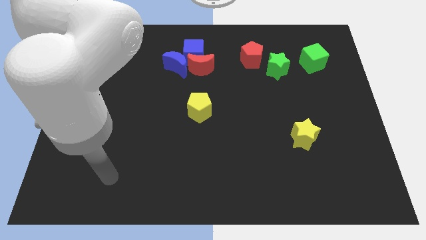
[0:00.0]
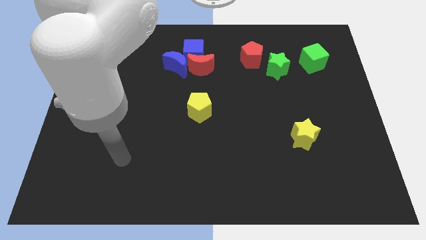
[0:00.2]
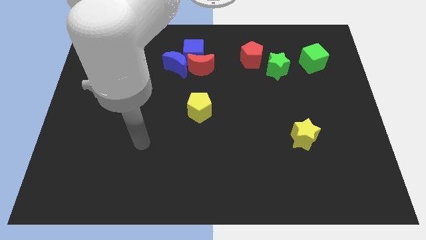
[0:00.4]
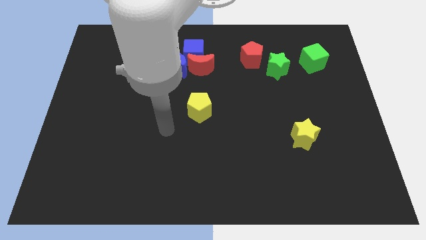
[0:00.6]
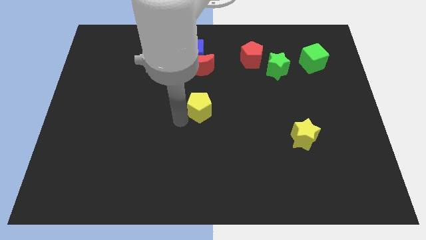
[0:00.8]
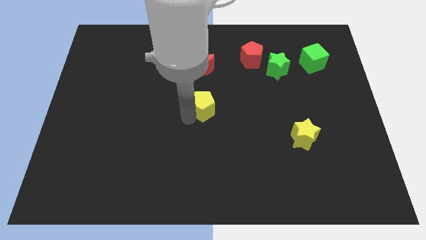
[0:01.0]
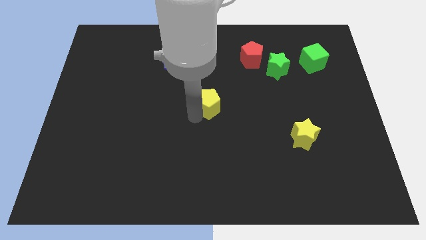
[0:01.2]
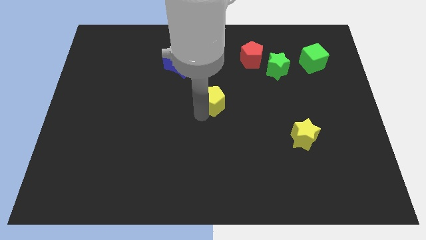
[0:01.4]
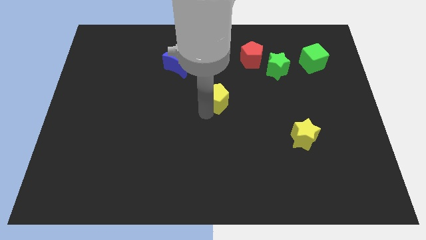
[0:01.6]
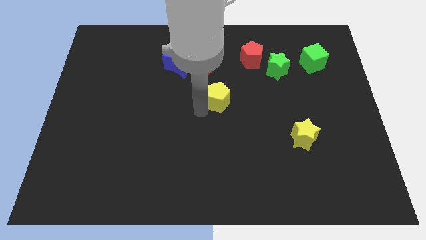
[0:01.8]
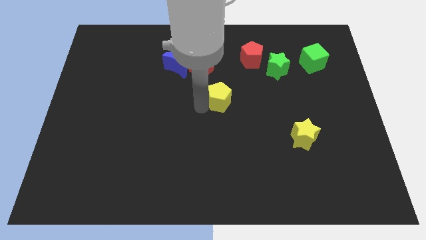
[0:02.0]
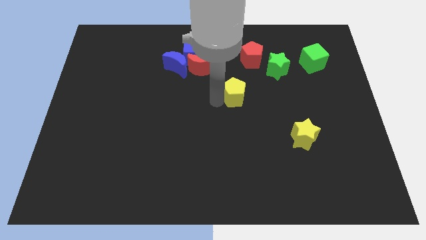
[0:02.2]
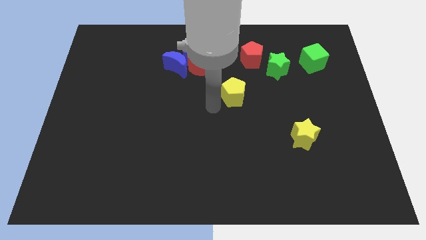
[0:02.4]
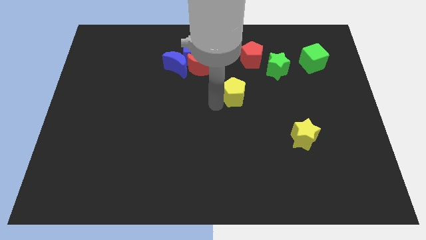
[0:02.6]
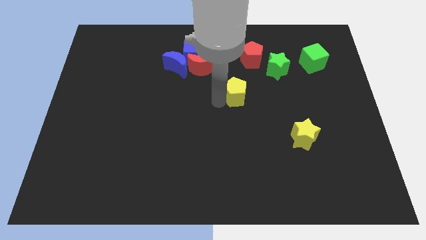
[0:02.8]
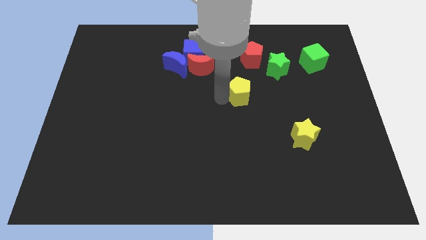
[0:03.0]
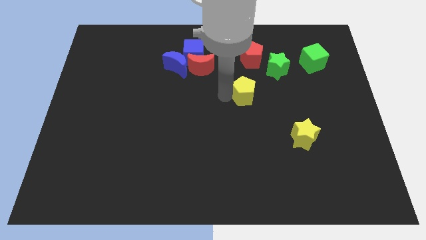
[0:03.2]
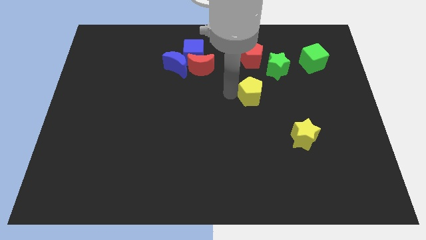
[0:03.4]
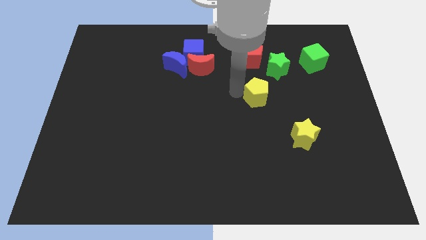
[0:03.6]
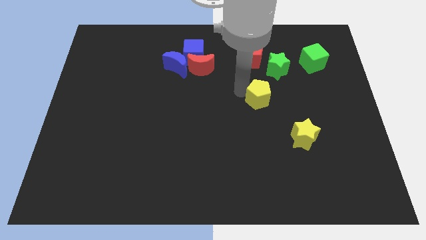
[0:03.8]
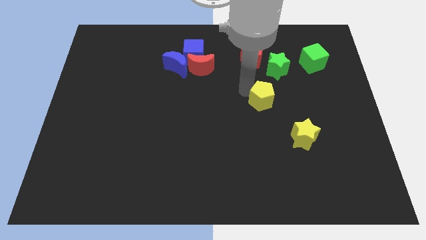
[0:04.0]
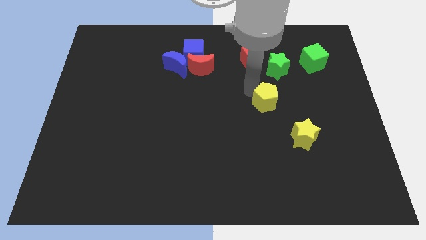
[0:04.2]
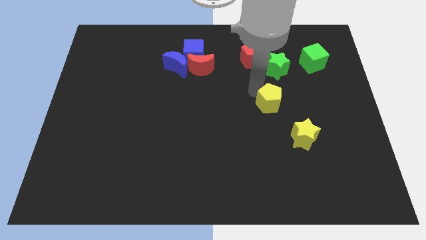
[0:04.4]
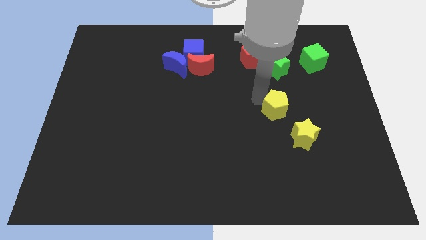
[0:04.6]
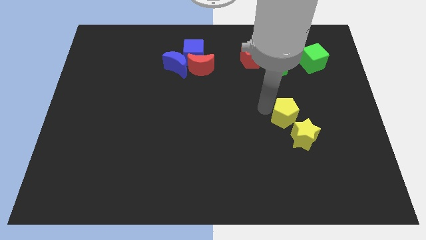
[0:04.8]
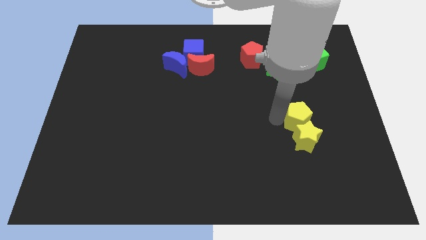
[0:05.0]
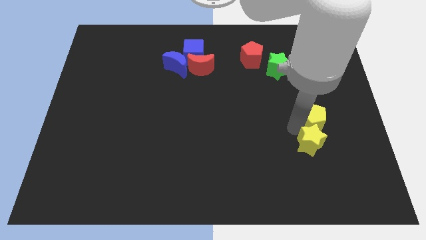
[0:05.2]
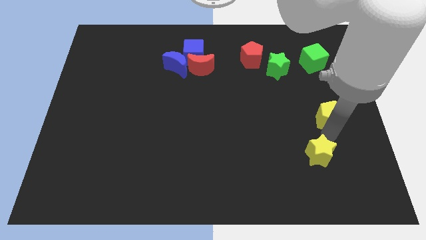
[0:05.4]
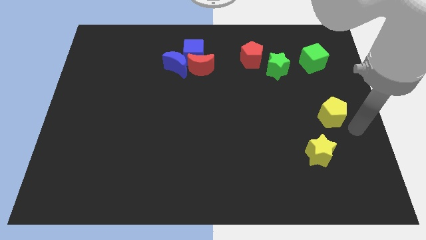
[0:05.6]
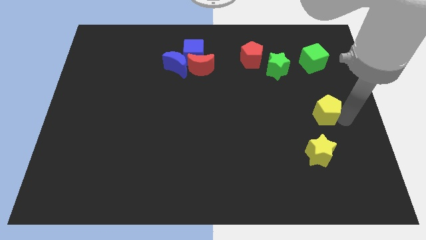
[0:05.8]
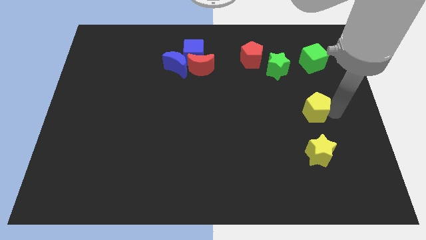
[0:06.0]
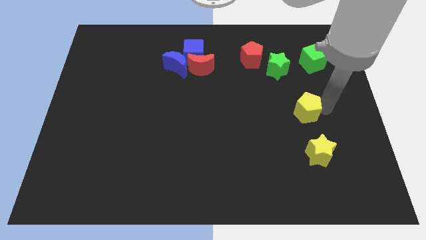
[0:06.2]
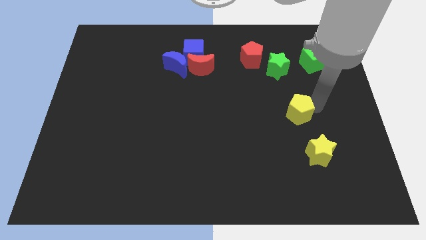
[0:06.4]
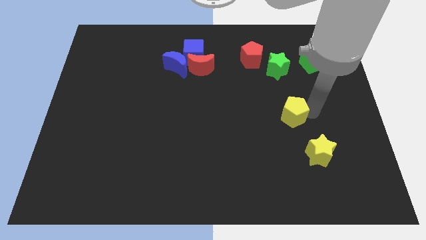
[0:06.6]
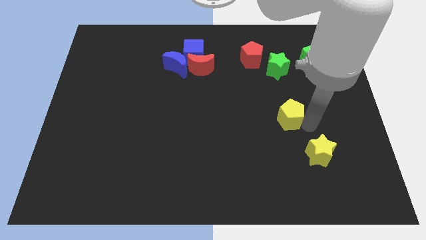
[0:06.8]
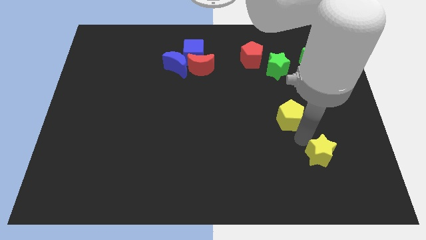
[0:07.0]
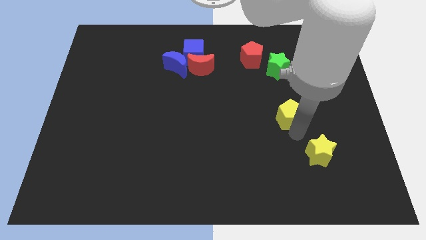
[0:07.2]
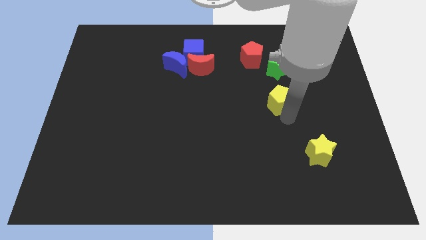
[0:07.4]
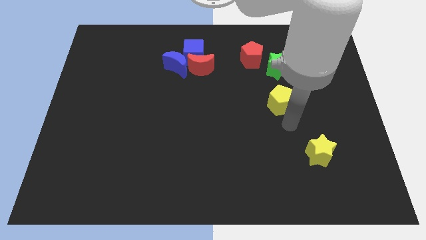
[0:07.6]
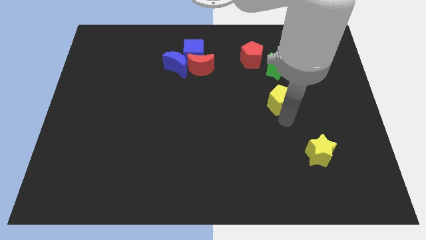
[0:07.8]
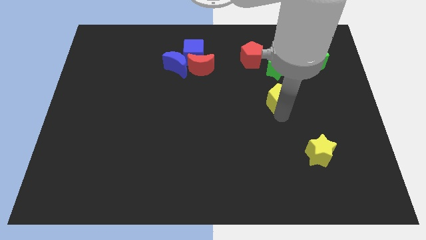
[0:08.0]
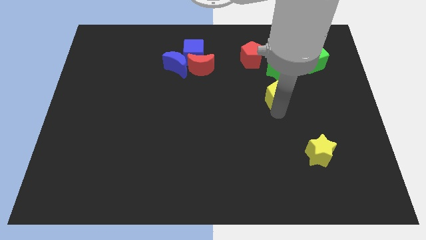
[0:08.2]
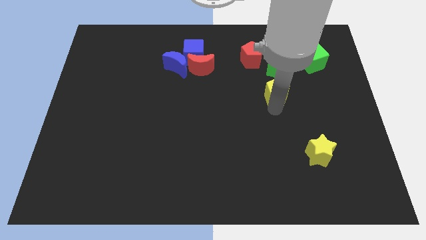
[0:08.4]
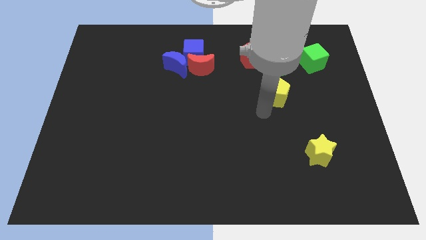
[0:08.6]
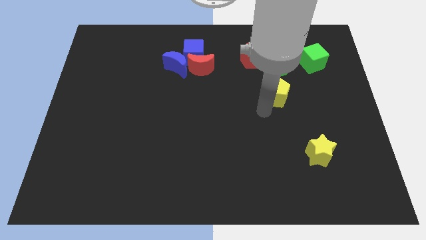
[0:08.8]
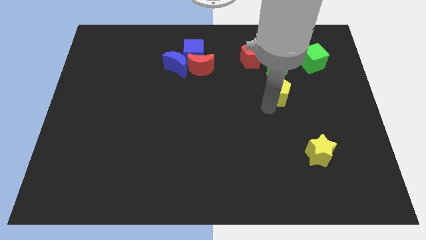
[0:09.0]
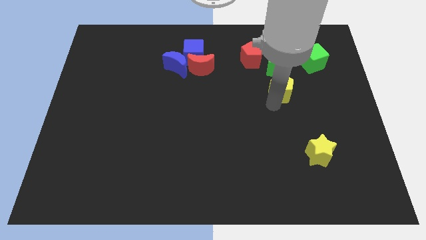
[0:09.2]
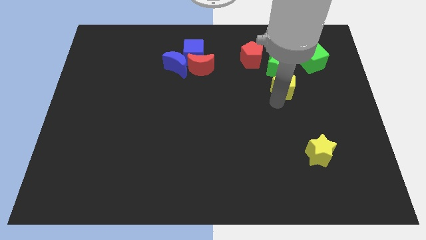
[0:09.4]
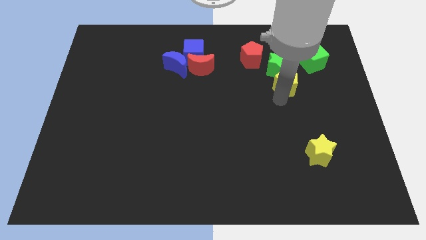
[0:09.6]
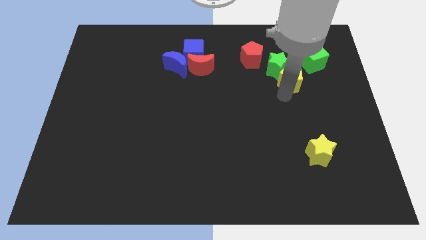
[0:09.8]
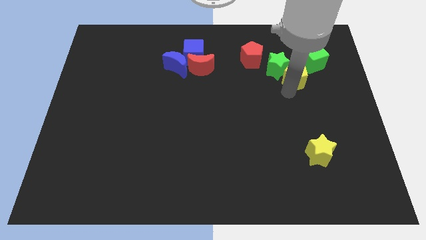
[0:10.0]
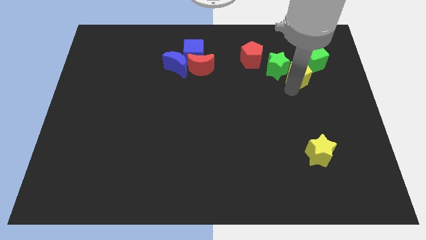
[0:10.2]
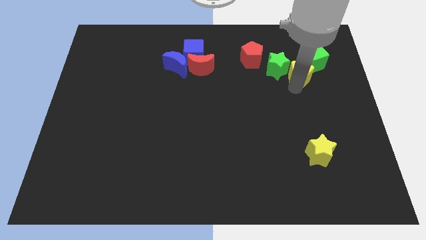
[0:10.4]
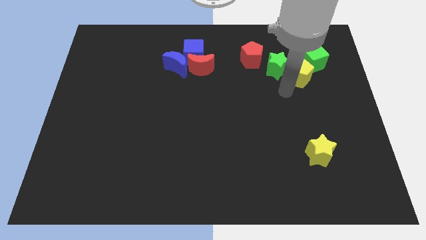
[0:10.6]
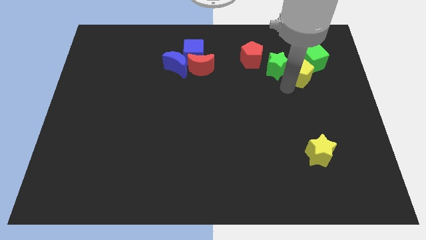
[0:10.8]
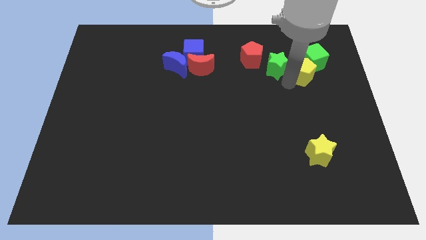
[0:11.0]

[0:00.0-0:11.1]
move the yellow pentagon to the green cube

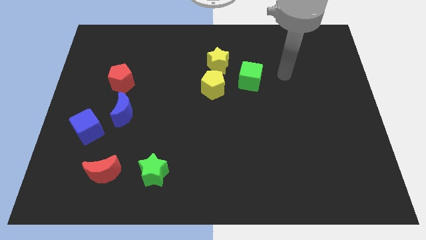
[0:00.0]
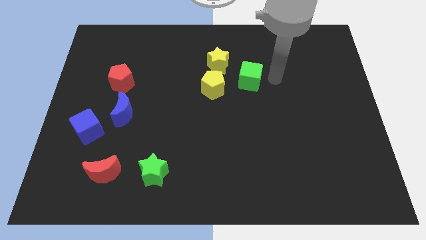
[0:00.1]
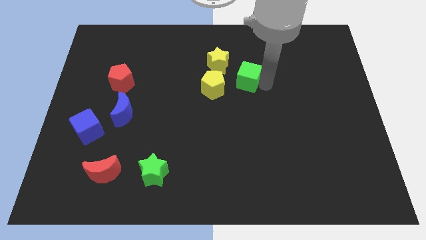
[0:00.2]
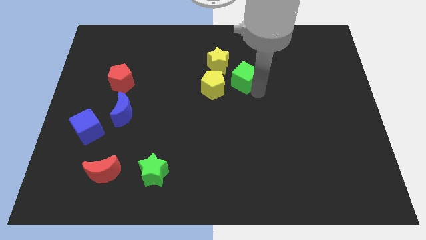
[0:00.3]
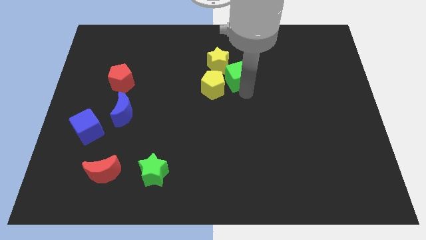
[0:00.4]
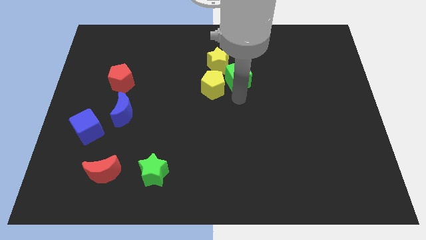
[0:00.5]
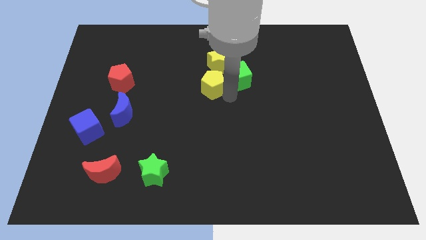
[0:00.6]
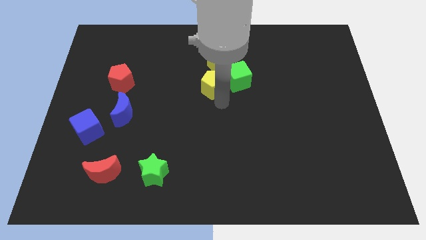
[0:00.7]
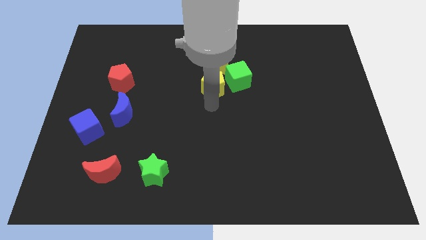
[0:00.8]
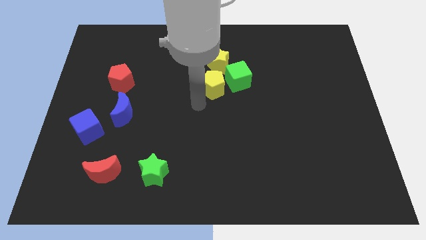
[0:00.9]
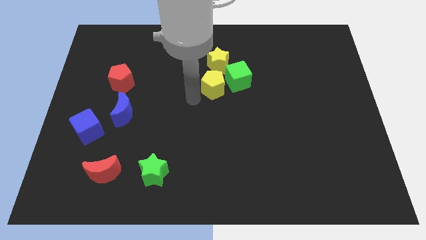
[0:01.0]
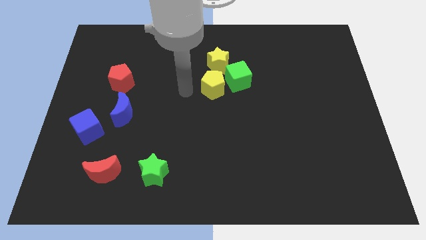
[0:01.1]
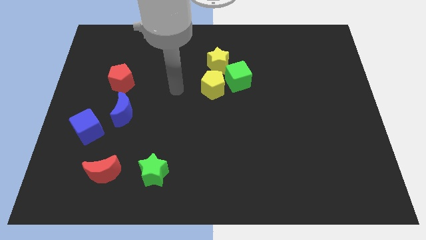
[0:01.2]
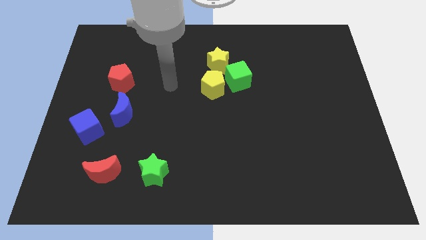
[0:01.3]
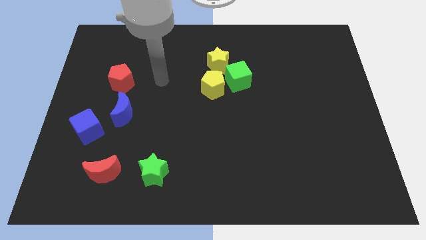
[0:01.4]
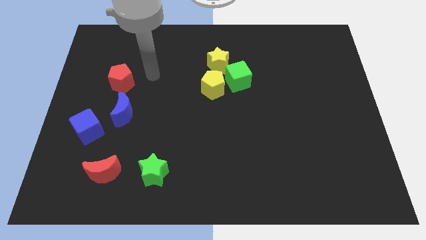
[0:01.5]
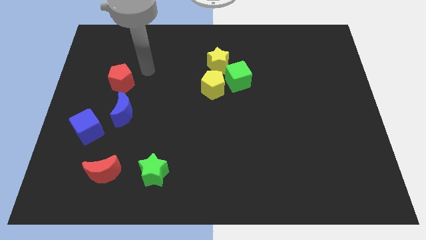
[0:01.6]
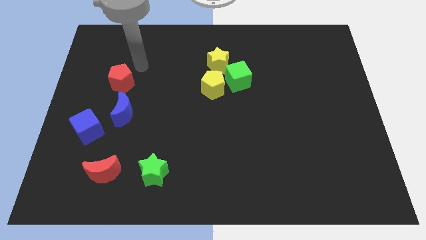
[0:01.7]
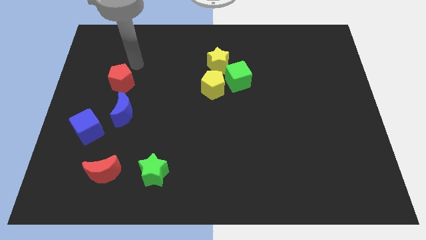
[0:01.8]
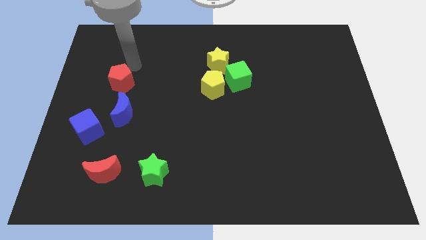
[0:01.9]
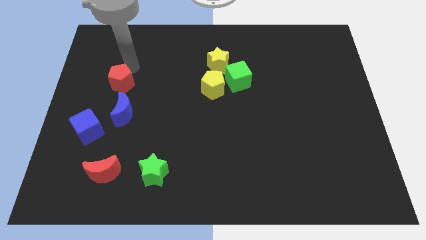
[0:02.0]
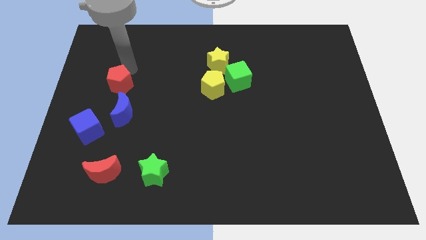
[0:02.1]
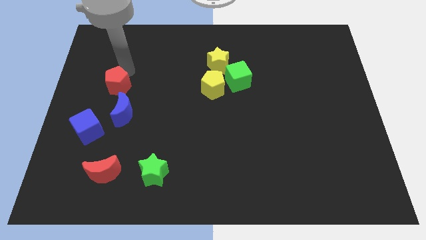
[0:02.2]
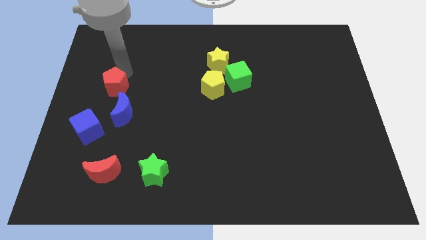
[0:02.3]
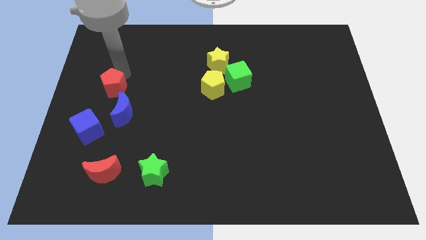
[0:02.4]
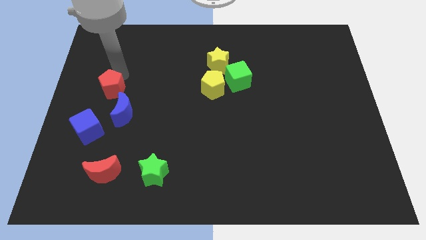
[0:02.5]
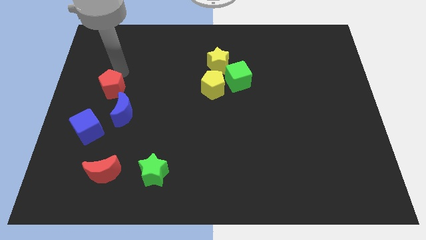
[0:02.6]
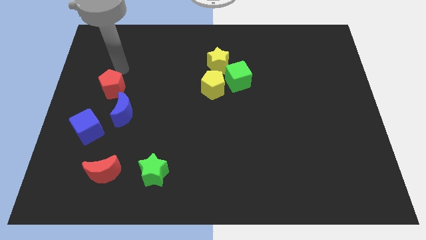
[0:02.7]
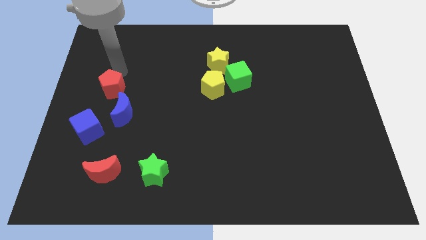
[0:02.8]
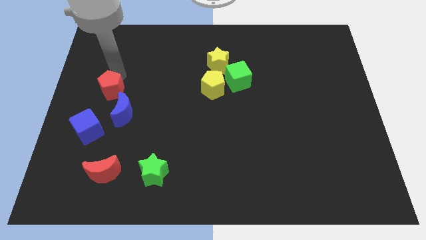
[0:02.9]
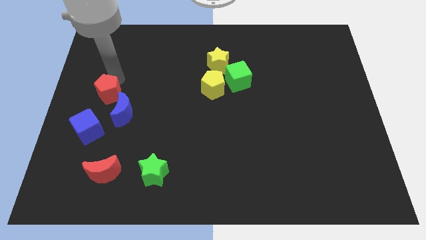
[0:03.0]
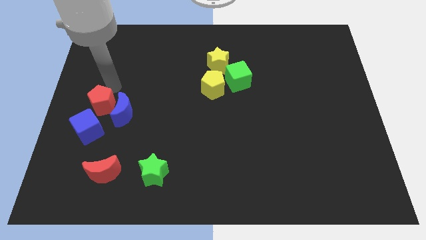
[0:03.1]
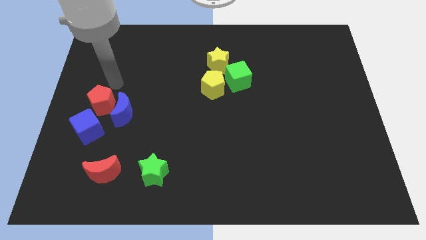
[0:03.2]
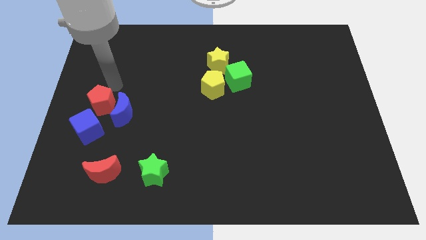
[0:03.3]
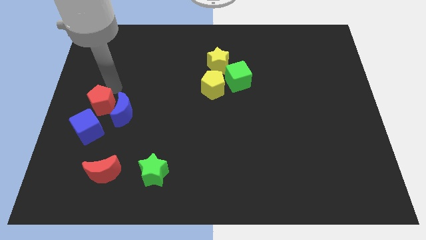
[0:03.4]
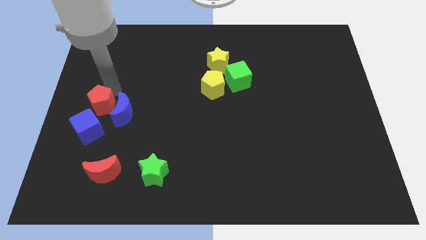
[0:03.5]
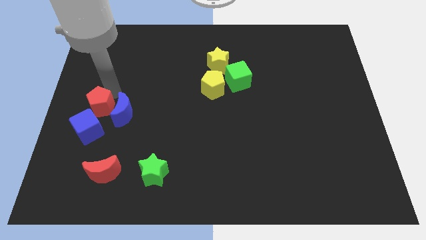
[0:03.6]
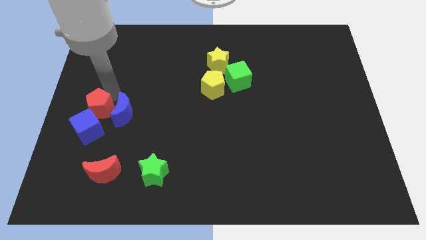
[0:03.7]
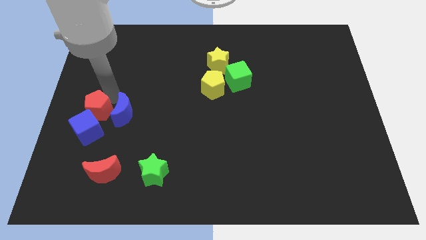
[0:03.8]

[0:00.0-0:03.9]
put the red pentagon next to the blue cube
